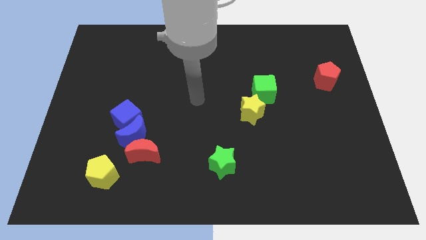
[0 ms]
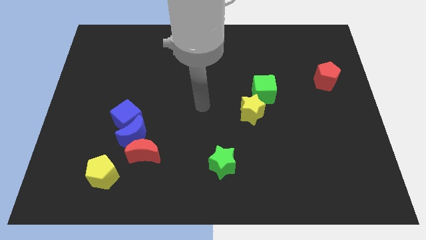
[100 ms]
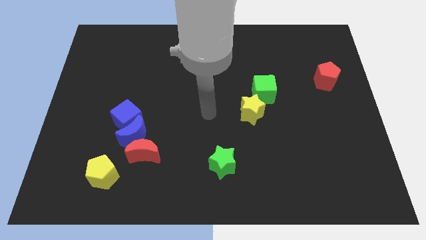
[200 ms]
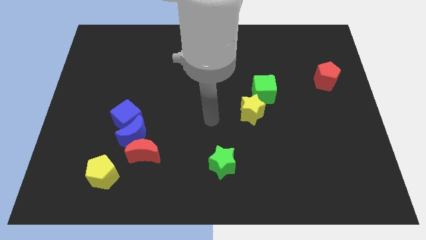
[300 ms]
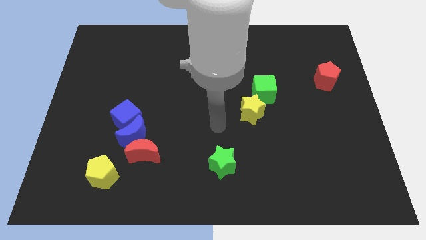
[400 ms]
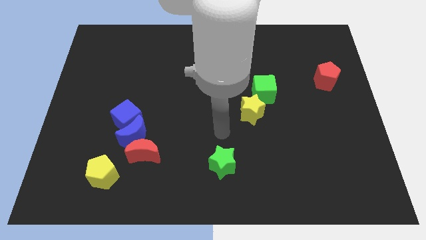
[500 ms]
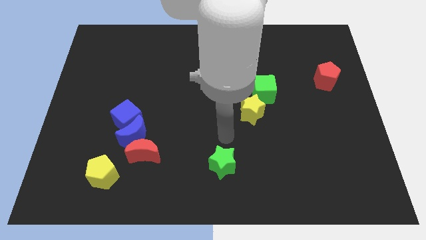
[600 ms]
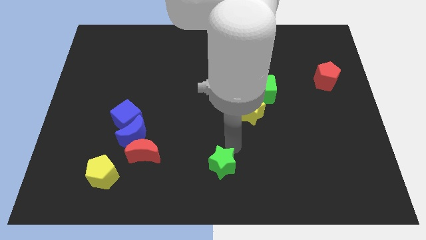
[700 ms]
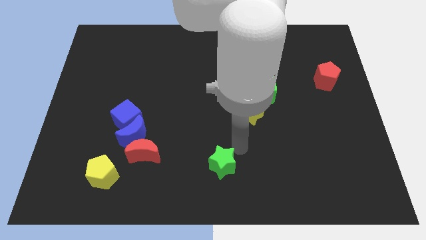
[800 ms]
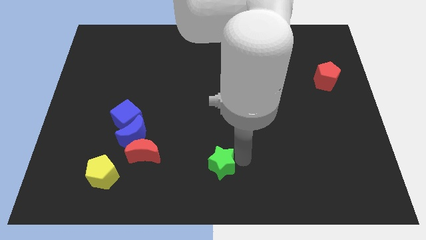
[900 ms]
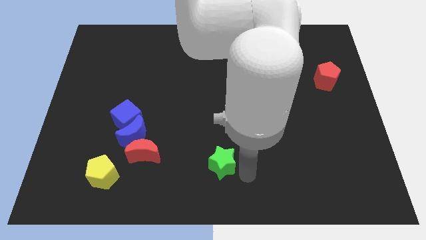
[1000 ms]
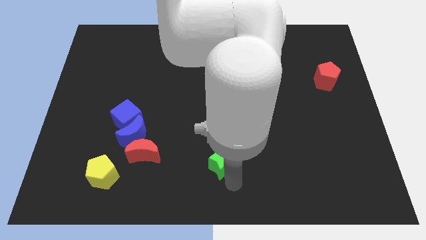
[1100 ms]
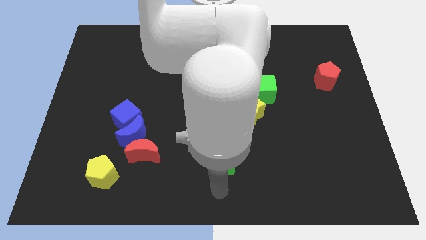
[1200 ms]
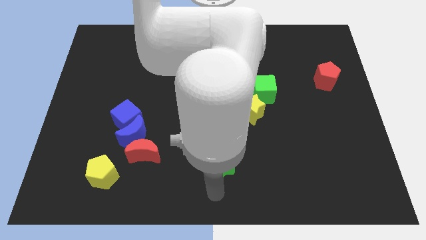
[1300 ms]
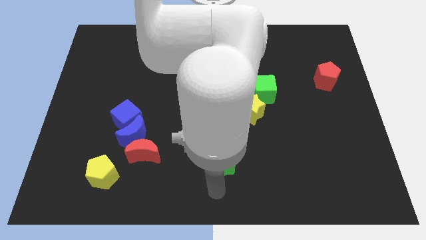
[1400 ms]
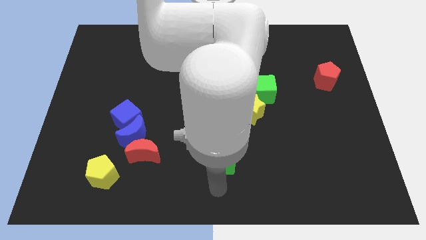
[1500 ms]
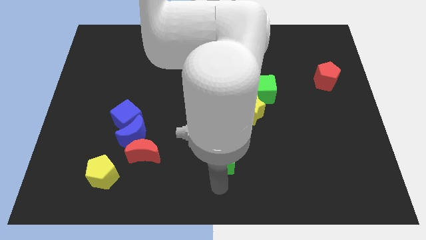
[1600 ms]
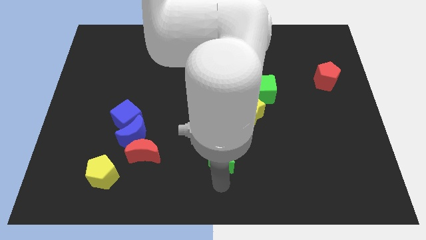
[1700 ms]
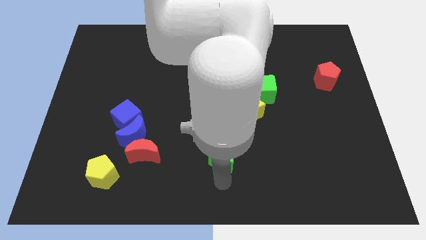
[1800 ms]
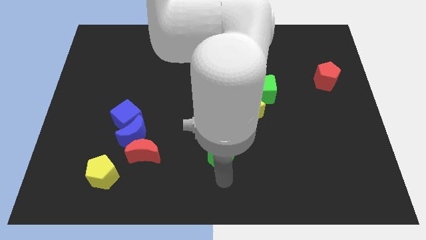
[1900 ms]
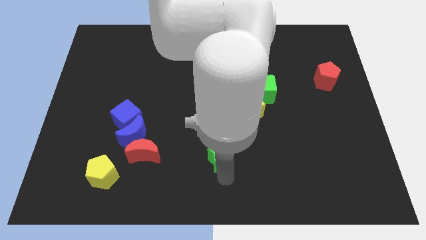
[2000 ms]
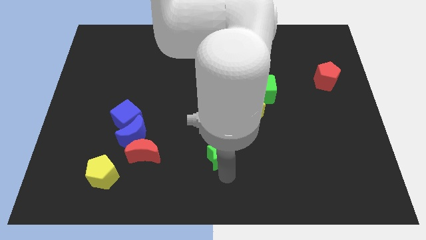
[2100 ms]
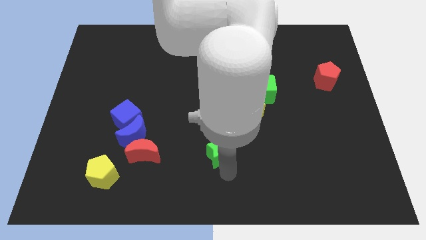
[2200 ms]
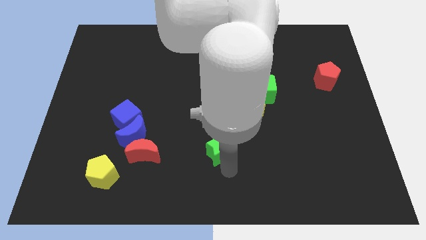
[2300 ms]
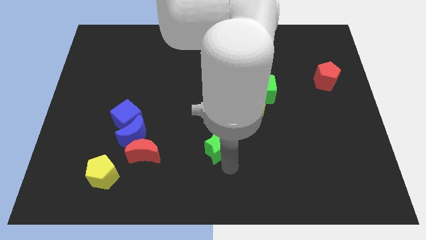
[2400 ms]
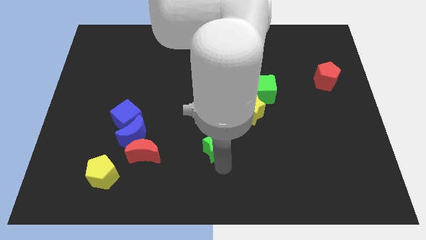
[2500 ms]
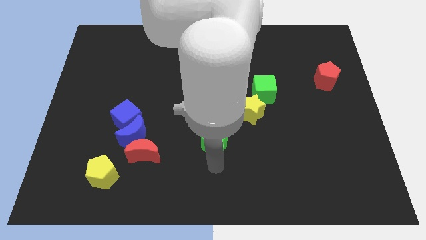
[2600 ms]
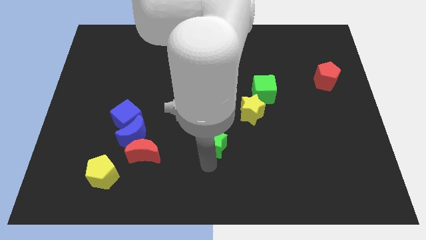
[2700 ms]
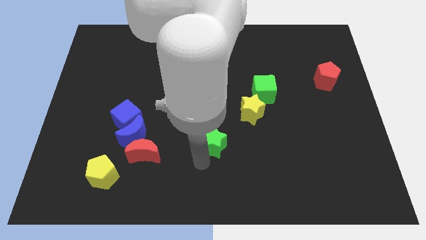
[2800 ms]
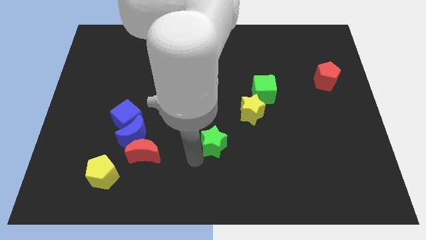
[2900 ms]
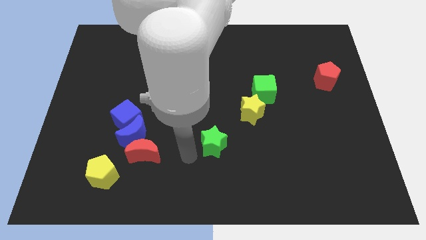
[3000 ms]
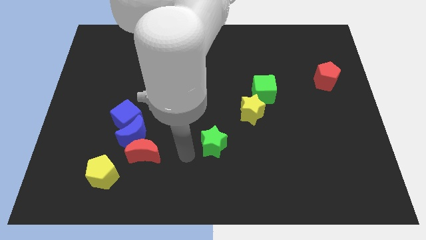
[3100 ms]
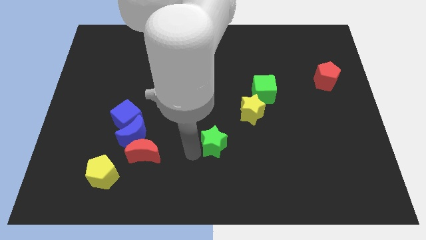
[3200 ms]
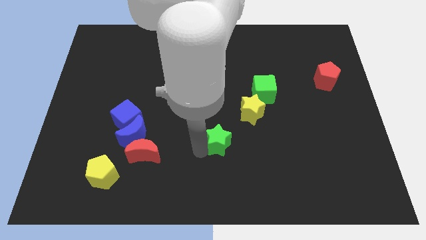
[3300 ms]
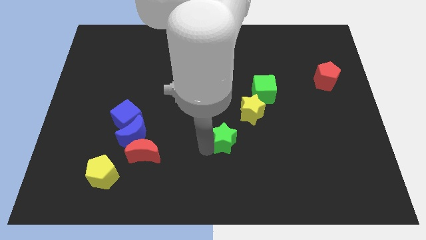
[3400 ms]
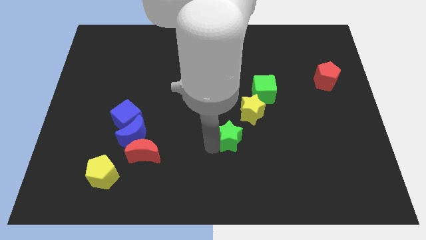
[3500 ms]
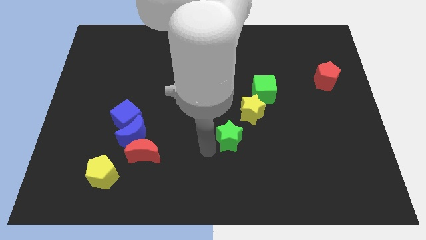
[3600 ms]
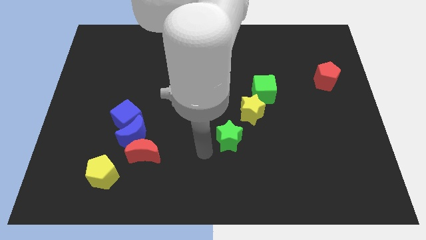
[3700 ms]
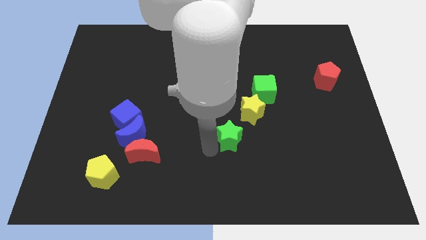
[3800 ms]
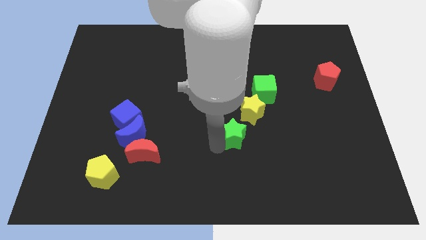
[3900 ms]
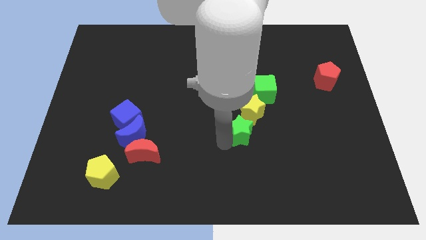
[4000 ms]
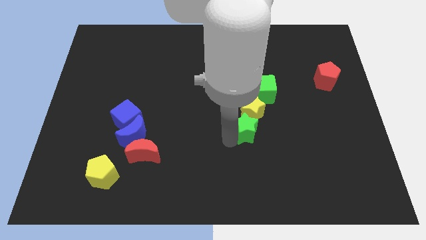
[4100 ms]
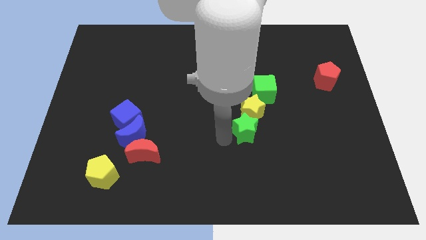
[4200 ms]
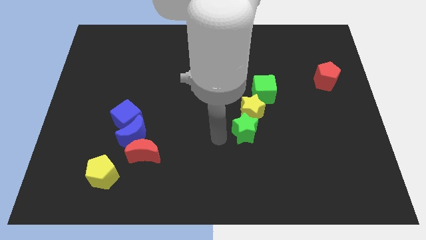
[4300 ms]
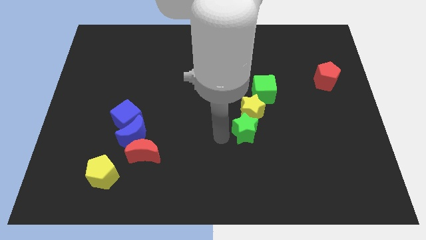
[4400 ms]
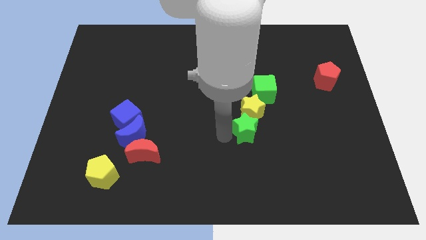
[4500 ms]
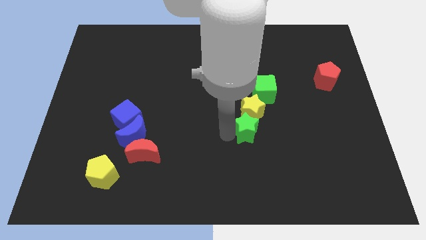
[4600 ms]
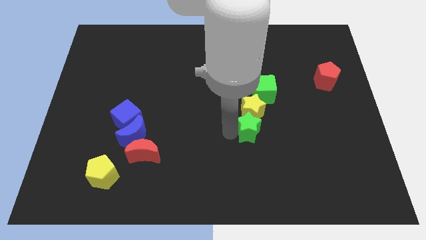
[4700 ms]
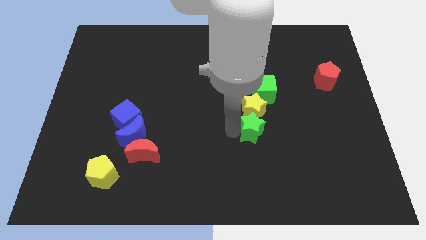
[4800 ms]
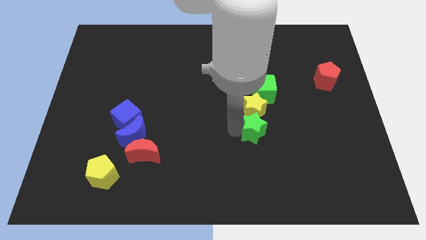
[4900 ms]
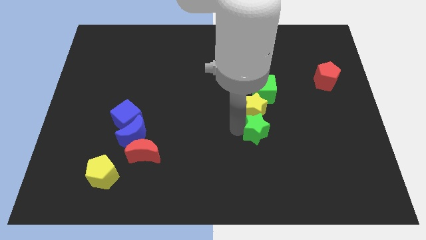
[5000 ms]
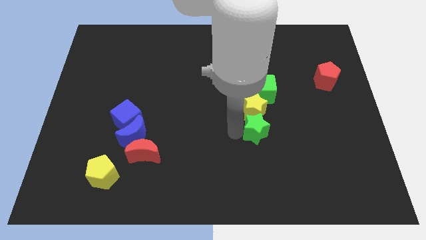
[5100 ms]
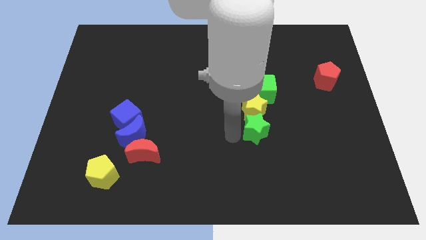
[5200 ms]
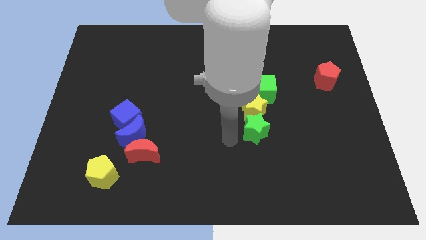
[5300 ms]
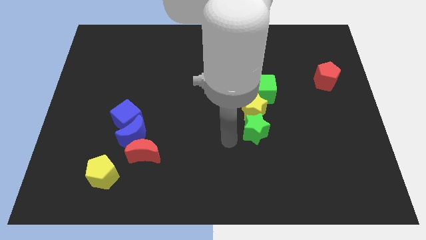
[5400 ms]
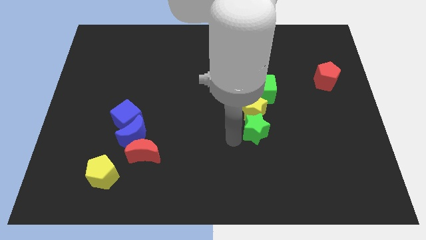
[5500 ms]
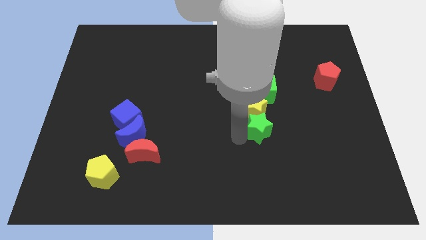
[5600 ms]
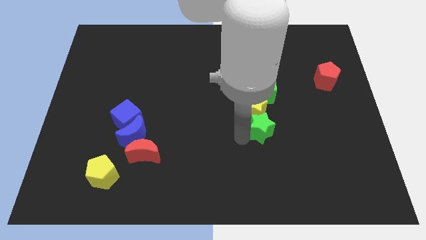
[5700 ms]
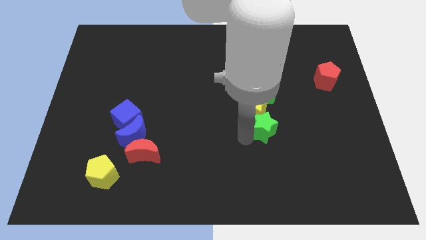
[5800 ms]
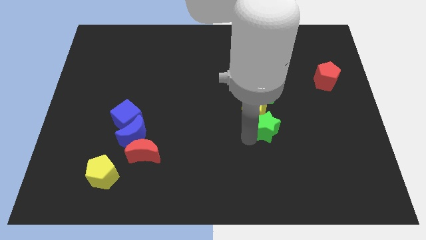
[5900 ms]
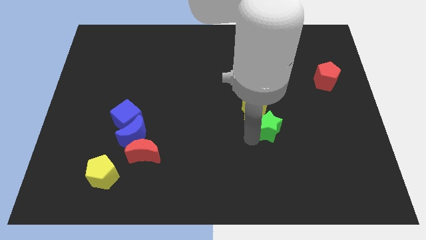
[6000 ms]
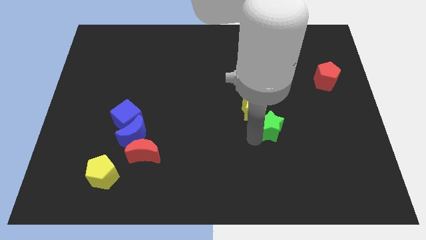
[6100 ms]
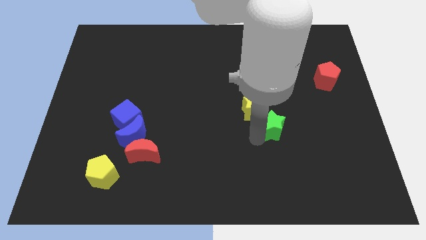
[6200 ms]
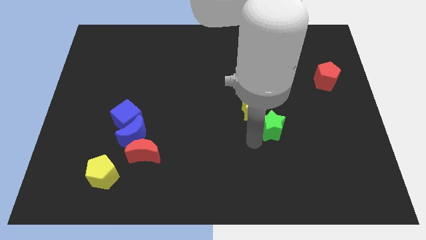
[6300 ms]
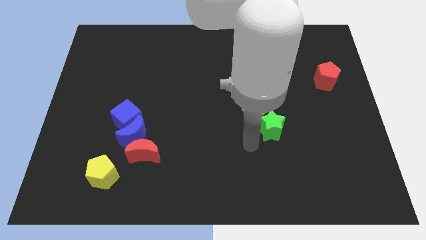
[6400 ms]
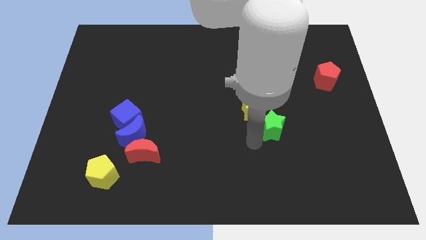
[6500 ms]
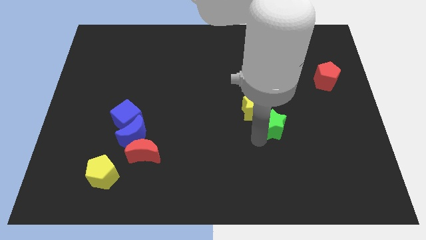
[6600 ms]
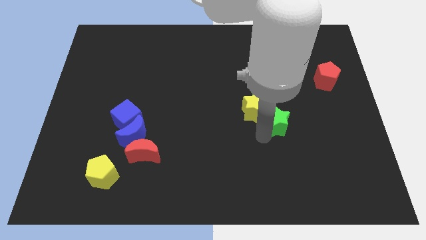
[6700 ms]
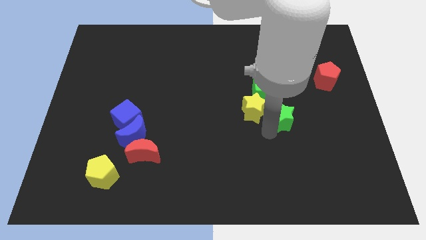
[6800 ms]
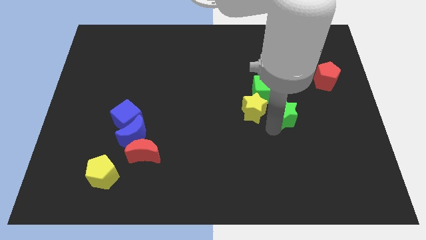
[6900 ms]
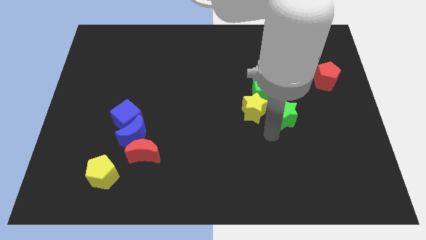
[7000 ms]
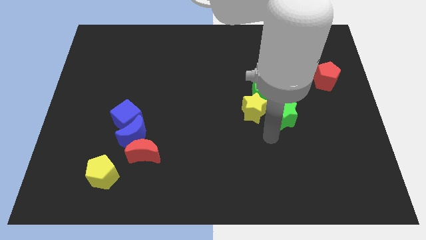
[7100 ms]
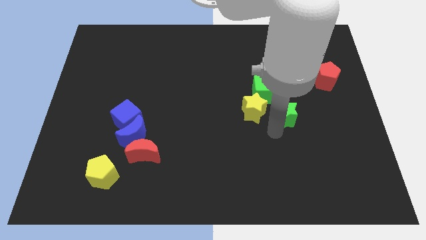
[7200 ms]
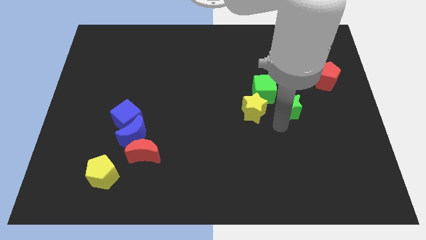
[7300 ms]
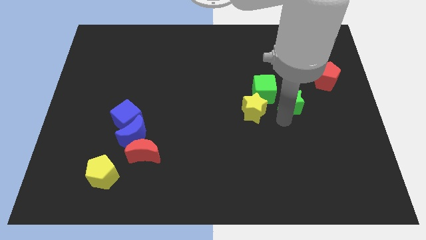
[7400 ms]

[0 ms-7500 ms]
move the green star to the right of the green cube
